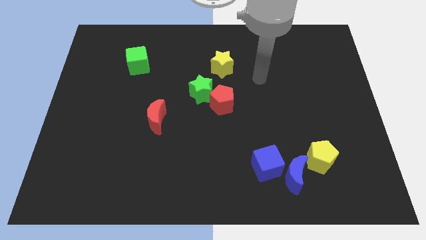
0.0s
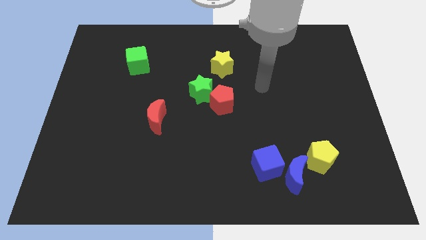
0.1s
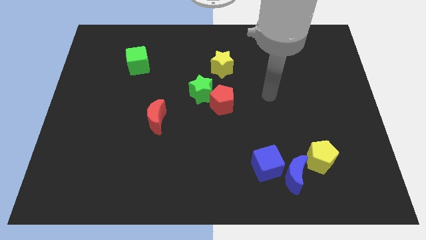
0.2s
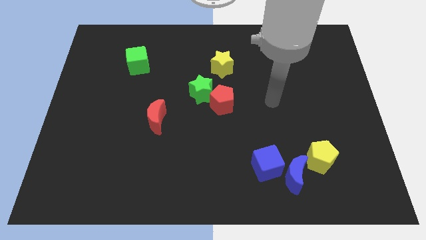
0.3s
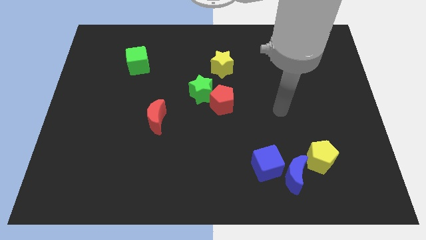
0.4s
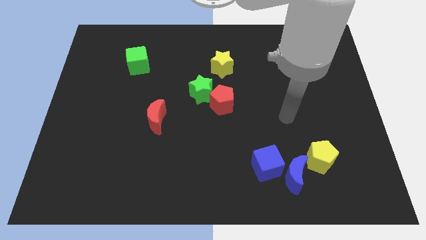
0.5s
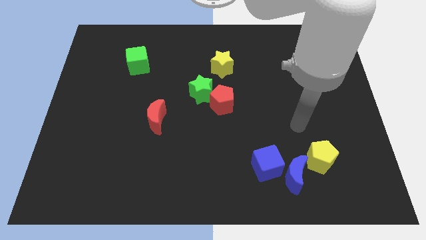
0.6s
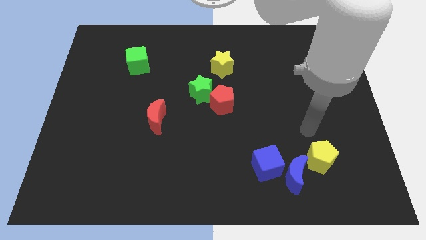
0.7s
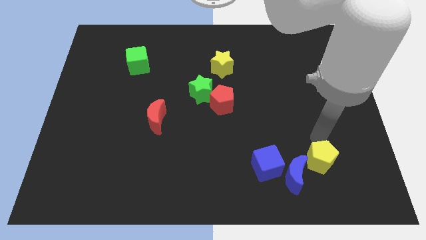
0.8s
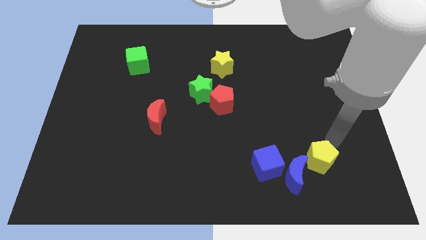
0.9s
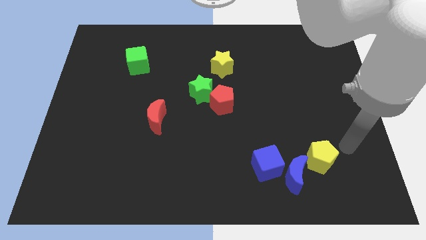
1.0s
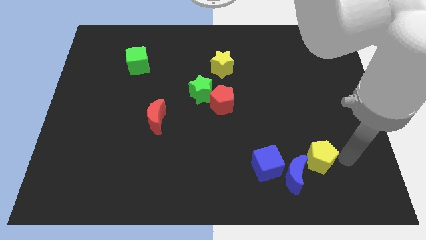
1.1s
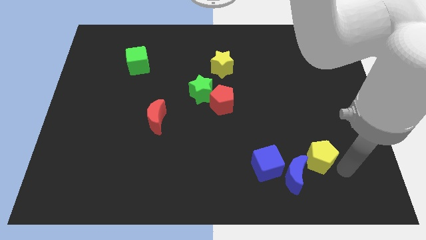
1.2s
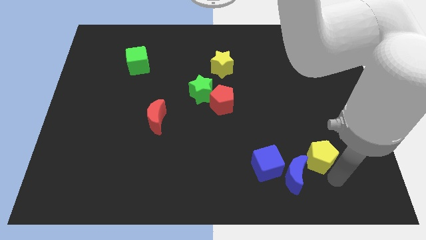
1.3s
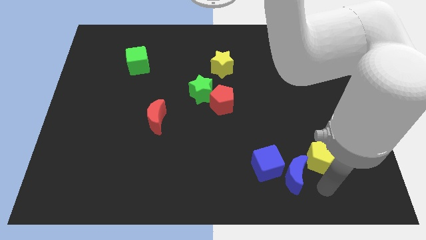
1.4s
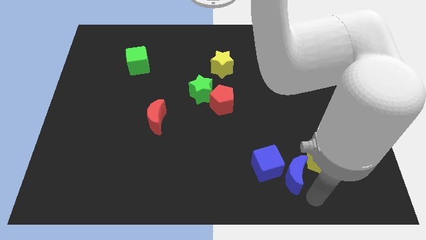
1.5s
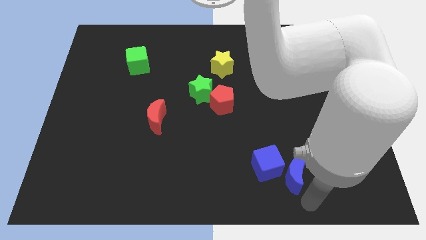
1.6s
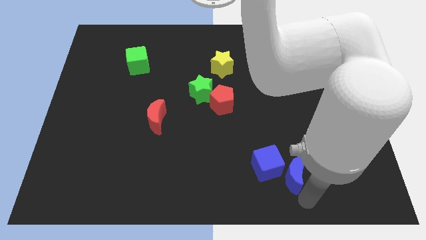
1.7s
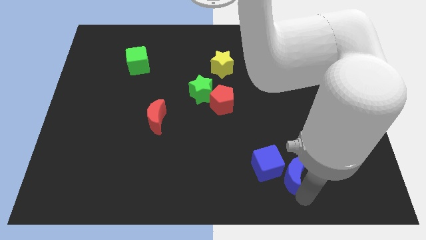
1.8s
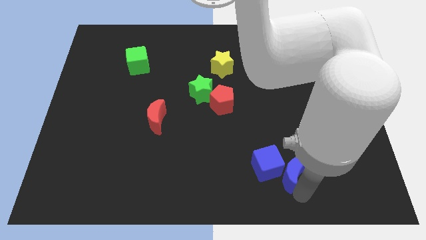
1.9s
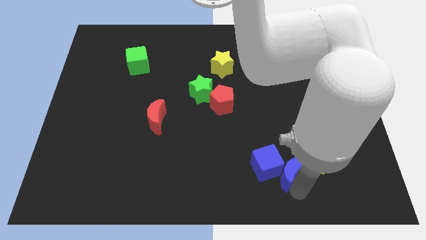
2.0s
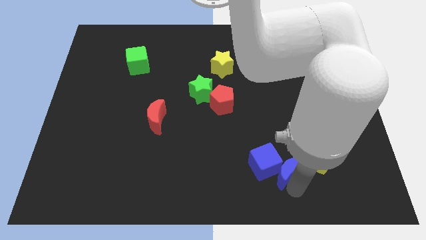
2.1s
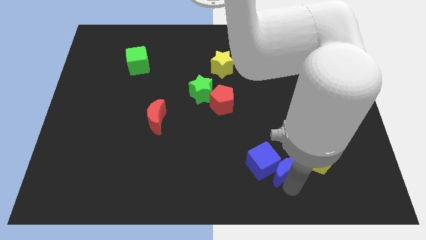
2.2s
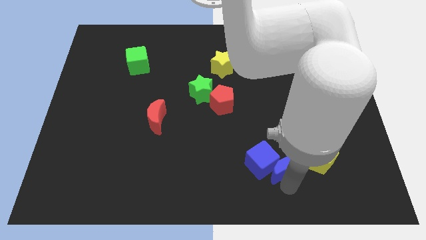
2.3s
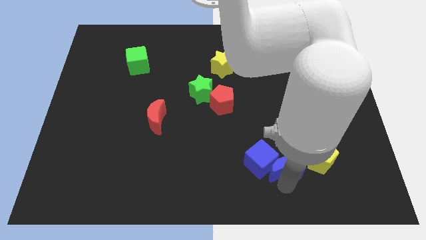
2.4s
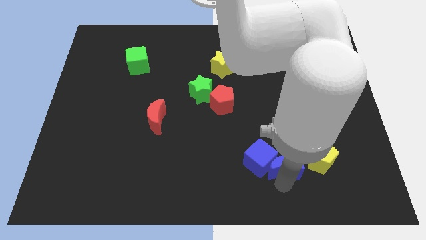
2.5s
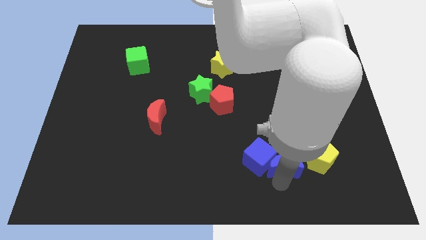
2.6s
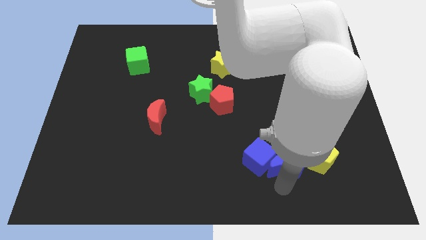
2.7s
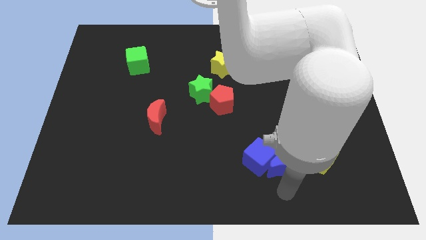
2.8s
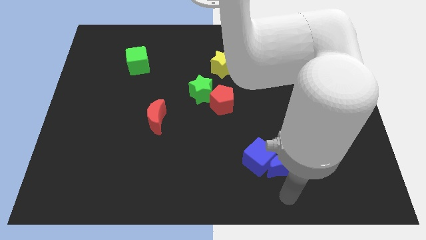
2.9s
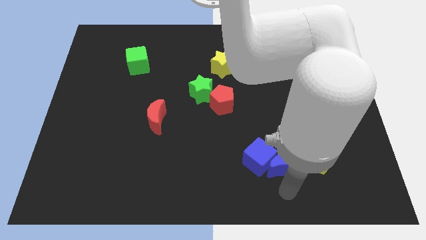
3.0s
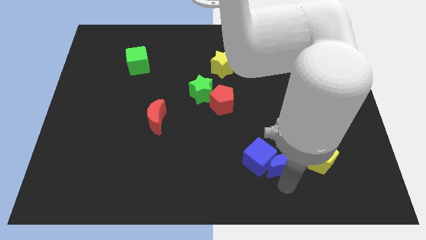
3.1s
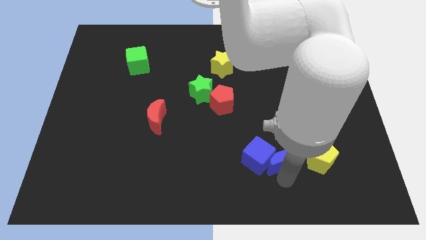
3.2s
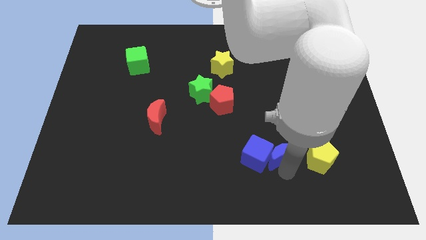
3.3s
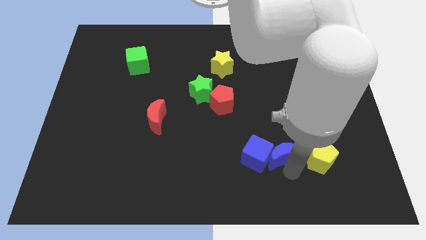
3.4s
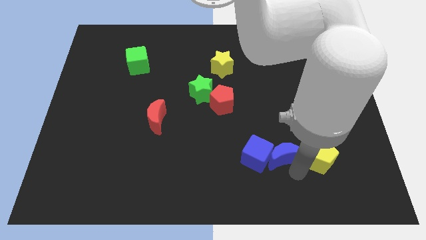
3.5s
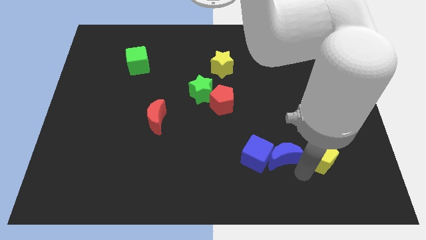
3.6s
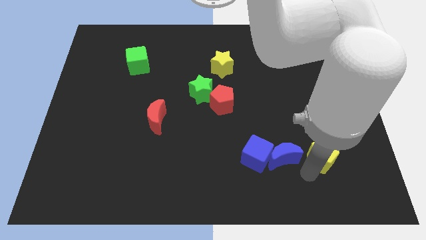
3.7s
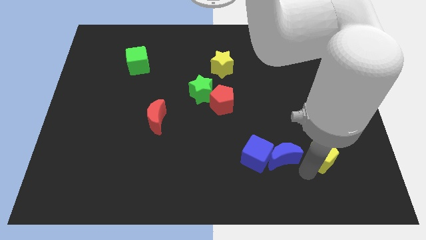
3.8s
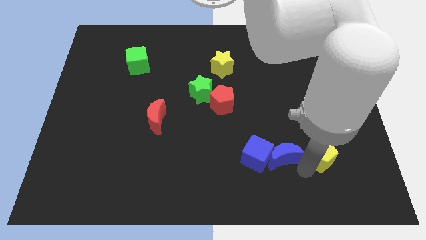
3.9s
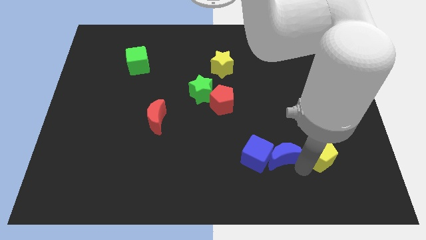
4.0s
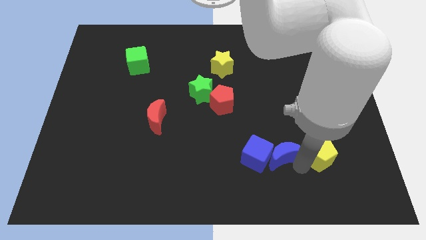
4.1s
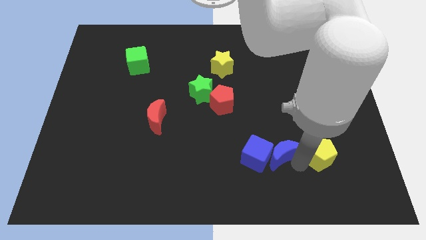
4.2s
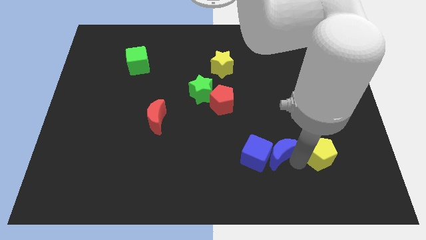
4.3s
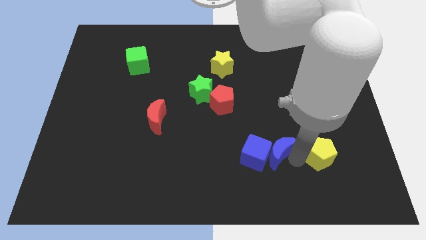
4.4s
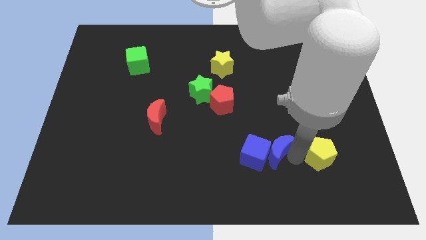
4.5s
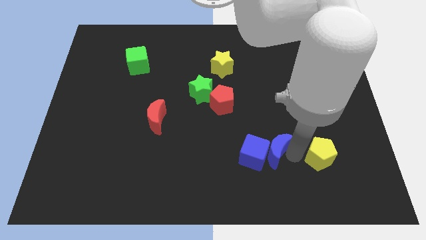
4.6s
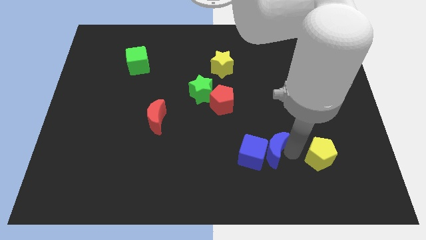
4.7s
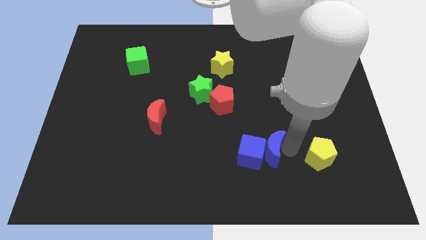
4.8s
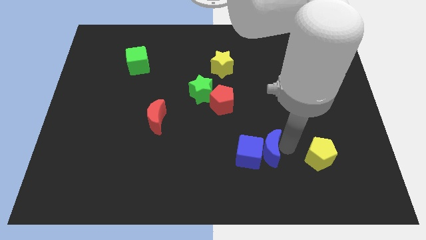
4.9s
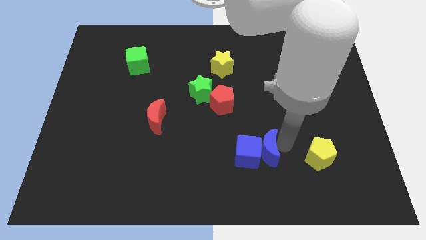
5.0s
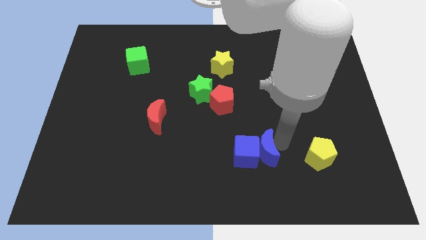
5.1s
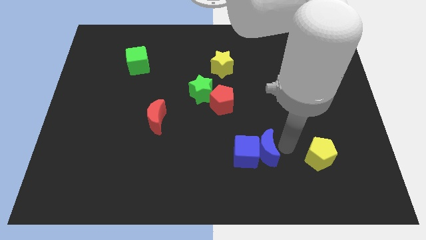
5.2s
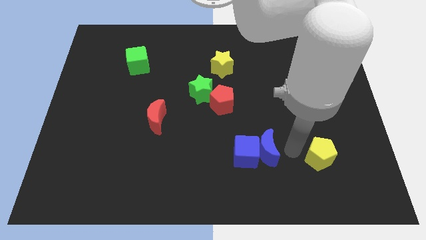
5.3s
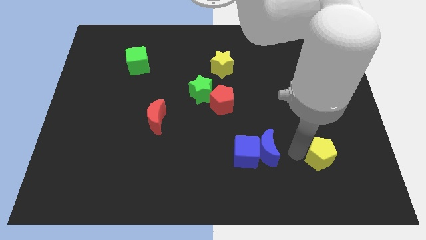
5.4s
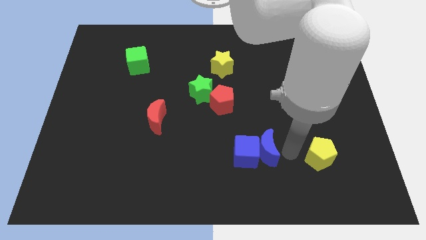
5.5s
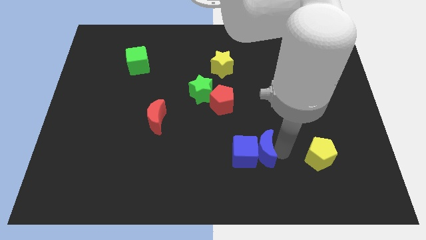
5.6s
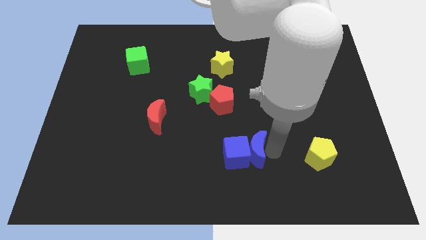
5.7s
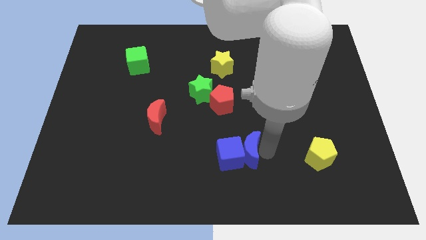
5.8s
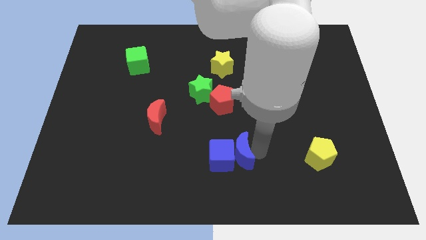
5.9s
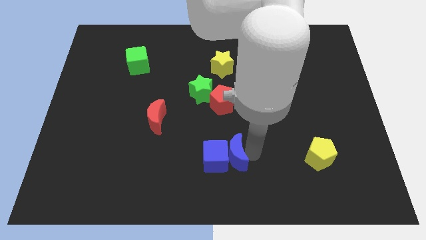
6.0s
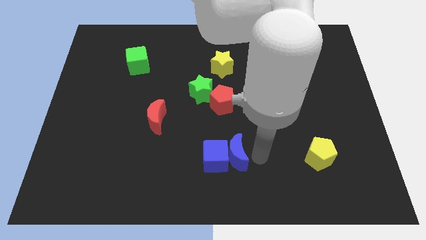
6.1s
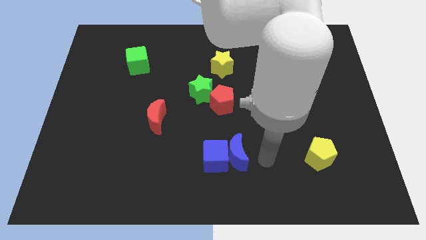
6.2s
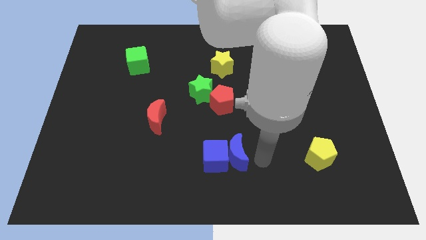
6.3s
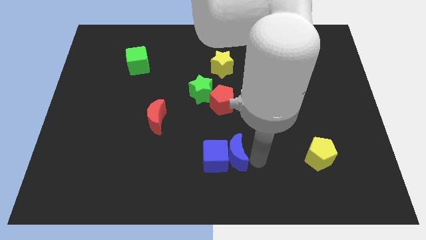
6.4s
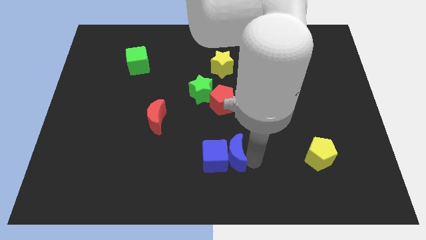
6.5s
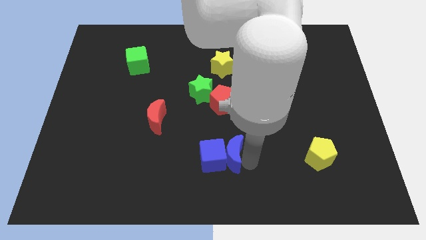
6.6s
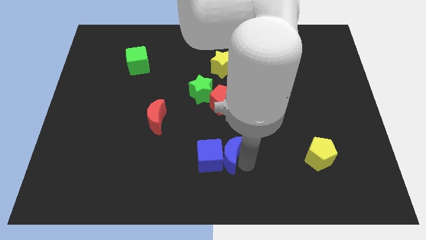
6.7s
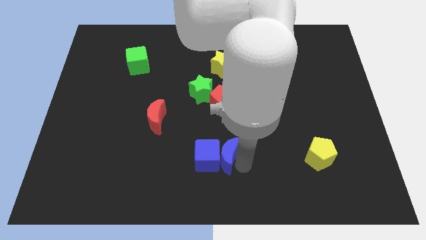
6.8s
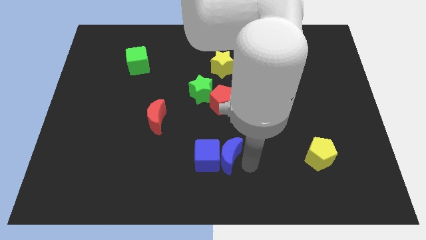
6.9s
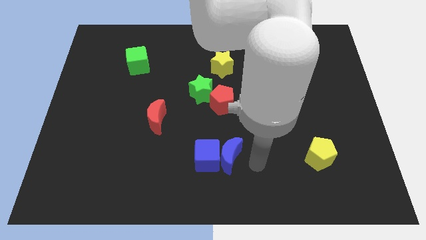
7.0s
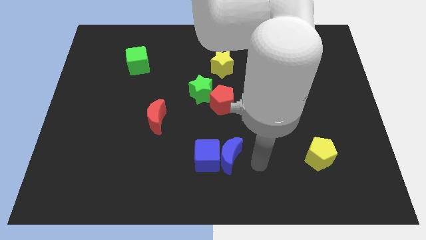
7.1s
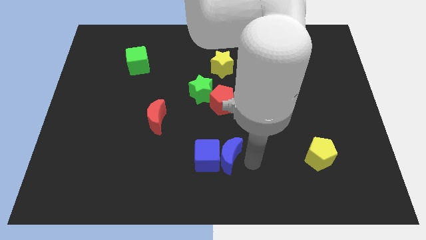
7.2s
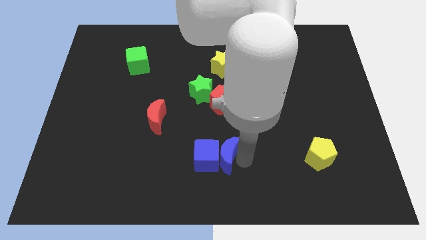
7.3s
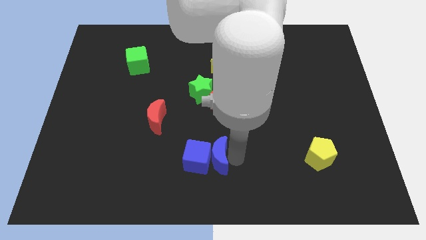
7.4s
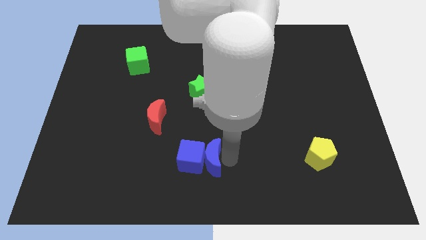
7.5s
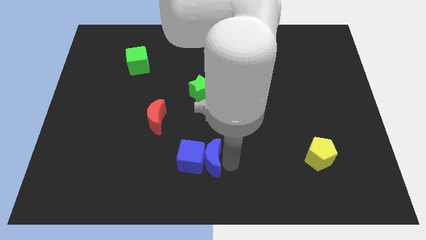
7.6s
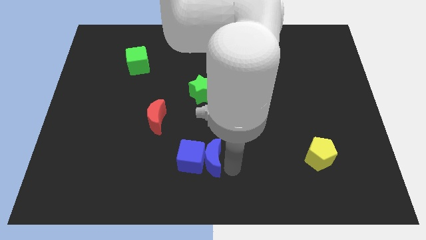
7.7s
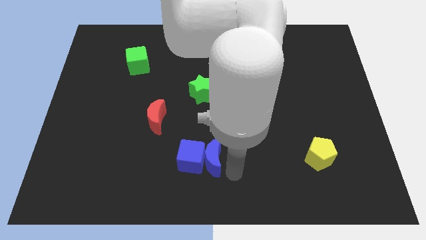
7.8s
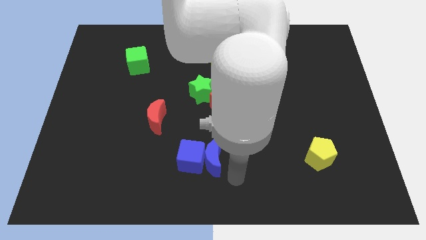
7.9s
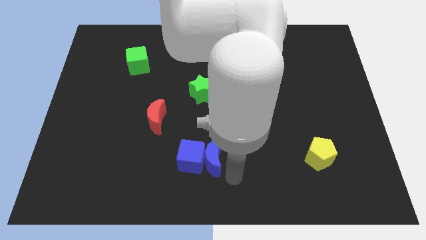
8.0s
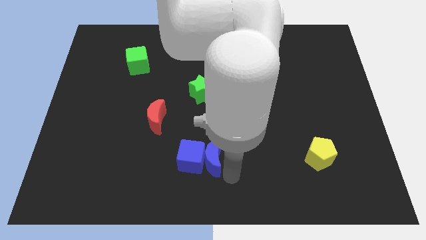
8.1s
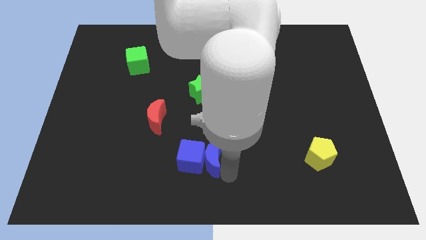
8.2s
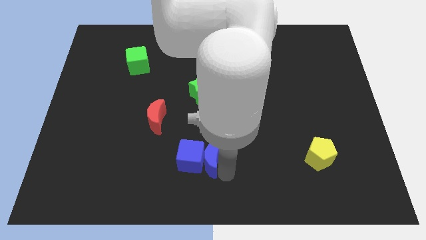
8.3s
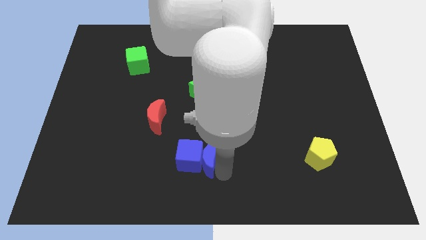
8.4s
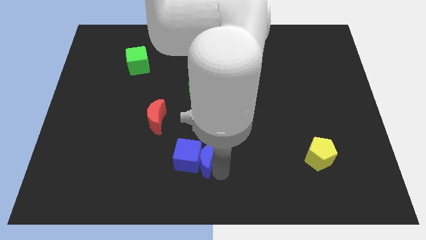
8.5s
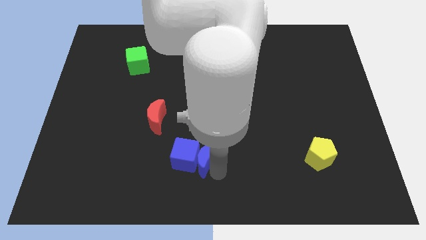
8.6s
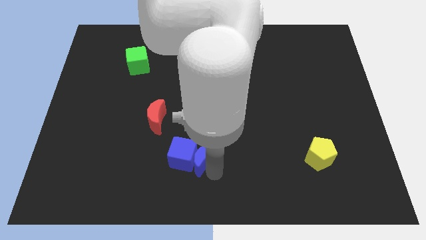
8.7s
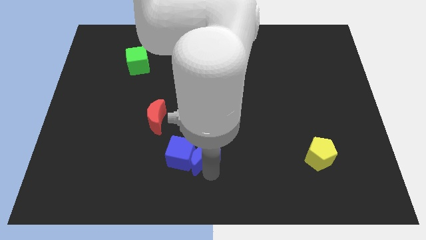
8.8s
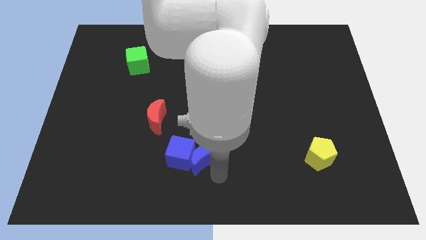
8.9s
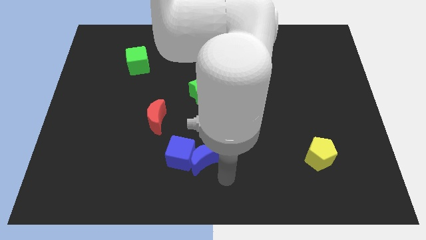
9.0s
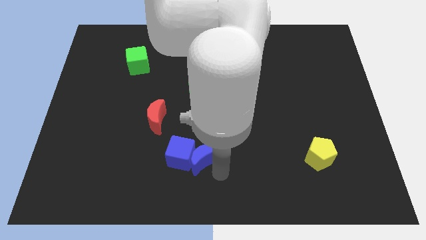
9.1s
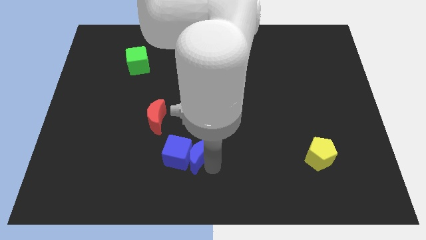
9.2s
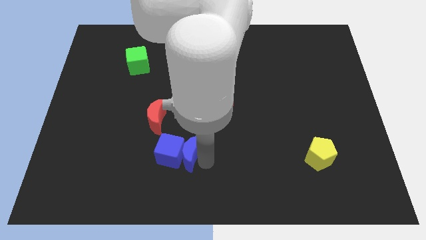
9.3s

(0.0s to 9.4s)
slide the blue moon to the bottom right of the red moon
